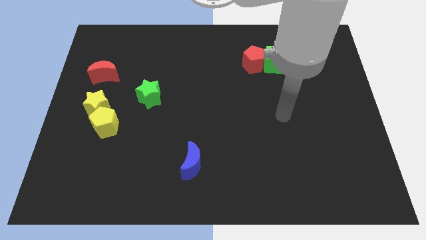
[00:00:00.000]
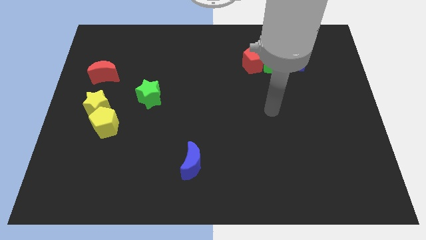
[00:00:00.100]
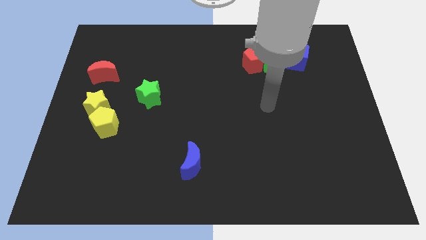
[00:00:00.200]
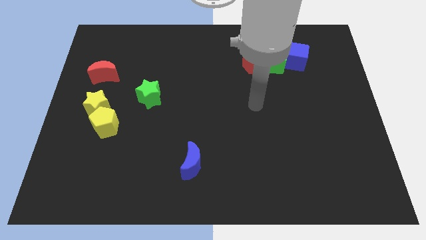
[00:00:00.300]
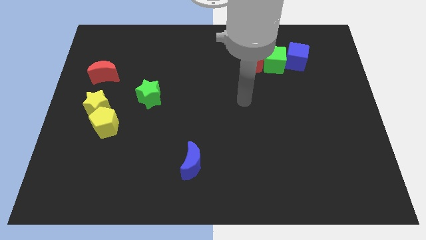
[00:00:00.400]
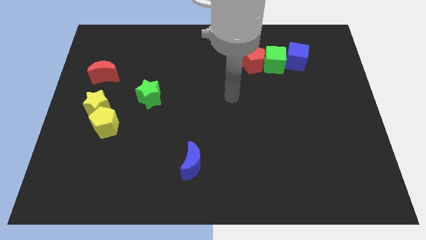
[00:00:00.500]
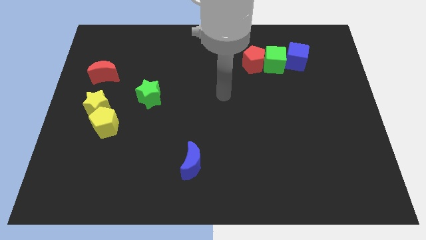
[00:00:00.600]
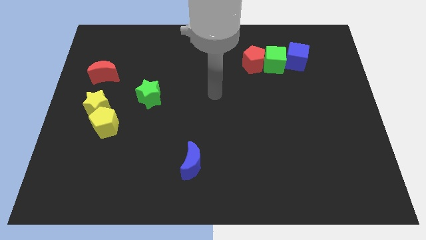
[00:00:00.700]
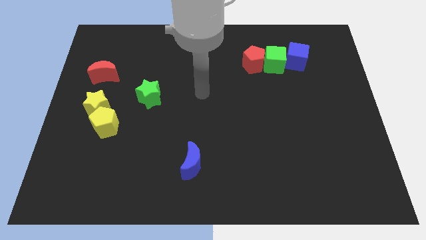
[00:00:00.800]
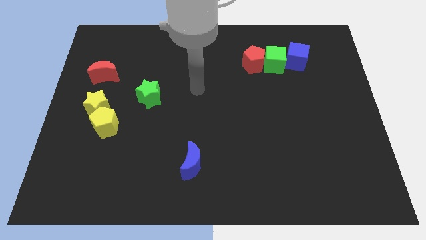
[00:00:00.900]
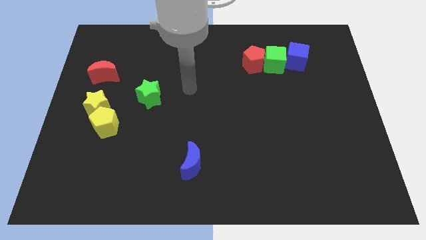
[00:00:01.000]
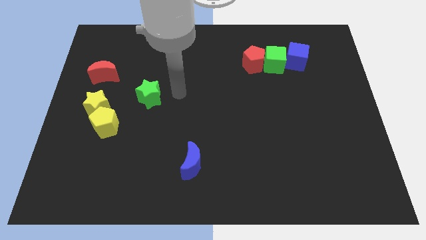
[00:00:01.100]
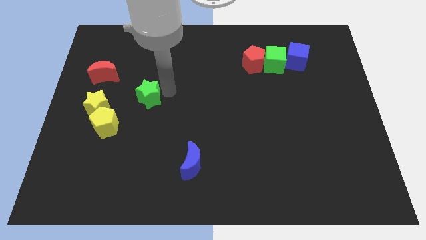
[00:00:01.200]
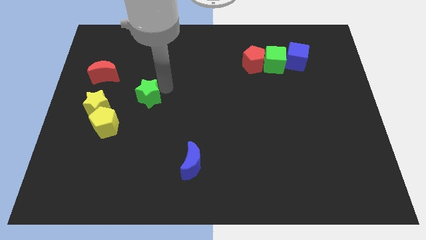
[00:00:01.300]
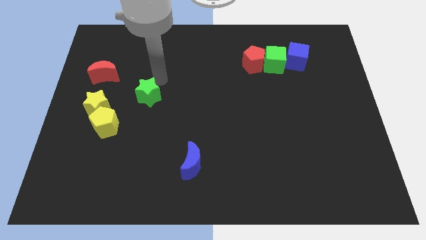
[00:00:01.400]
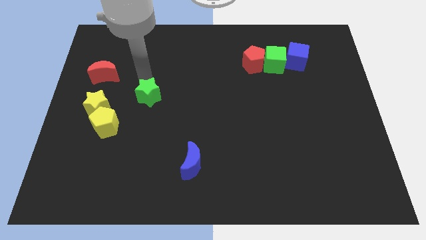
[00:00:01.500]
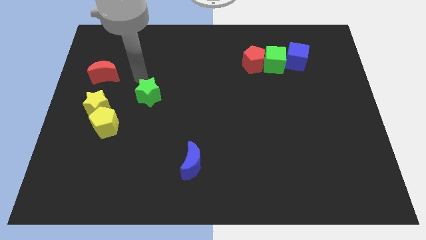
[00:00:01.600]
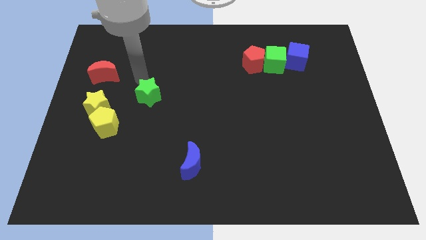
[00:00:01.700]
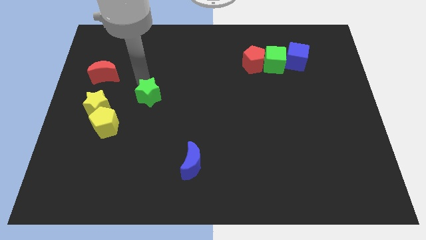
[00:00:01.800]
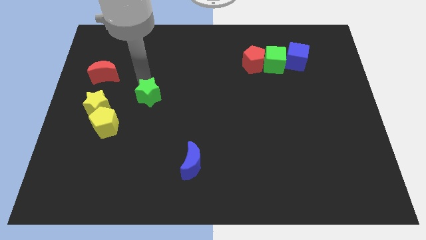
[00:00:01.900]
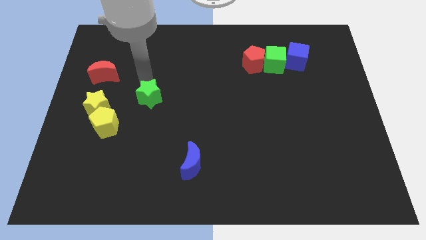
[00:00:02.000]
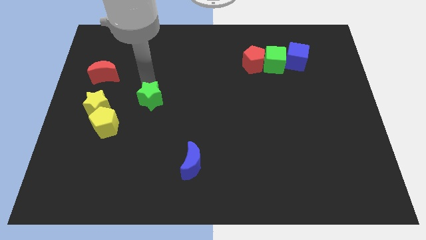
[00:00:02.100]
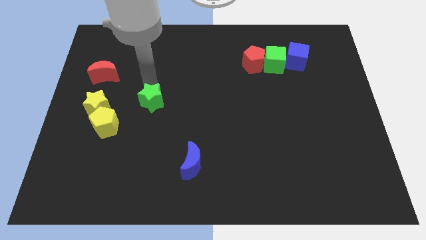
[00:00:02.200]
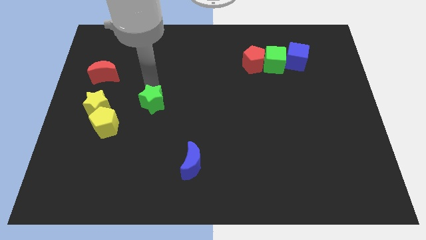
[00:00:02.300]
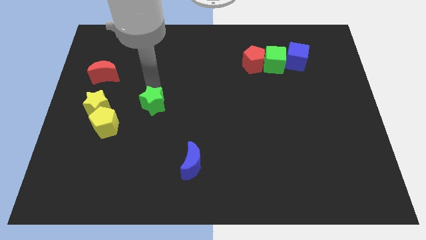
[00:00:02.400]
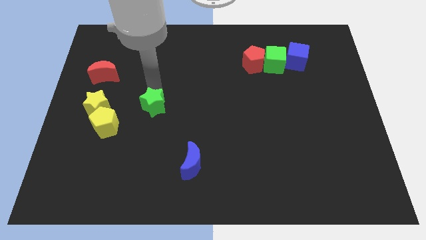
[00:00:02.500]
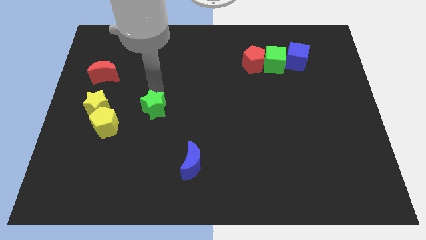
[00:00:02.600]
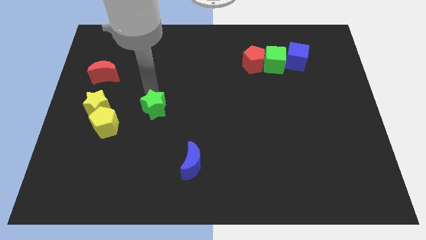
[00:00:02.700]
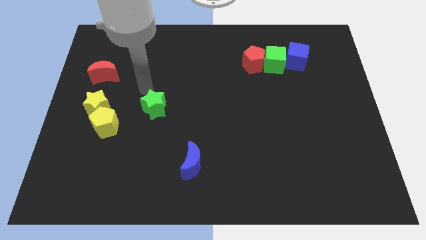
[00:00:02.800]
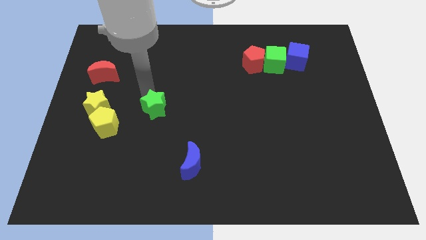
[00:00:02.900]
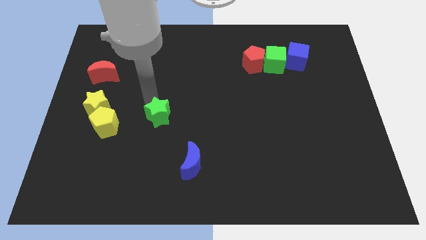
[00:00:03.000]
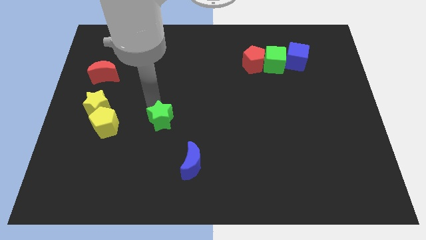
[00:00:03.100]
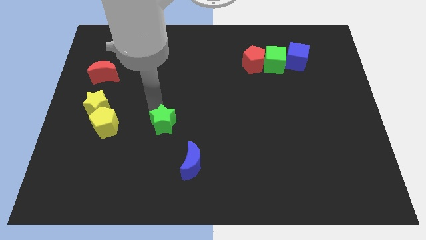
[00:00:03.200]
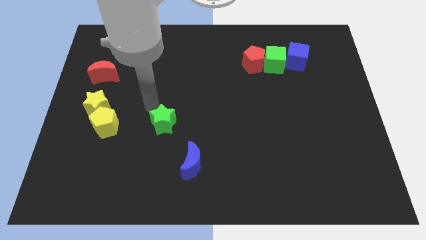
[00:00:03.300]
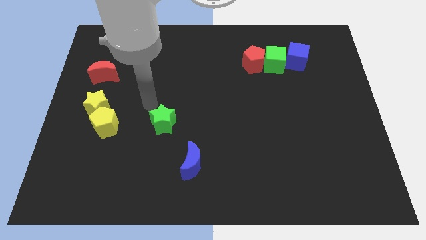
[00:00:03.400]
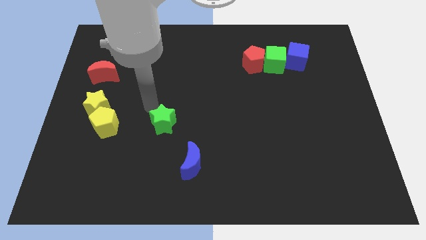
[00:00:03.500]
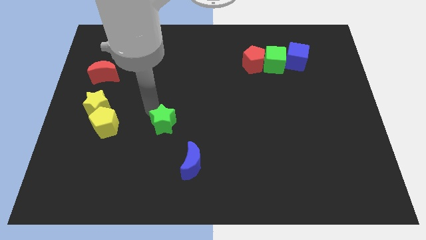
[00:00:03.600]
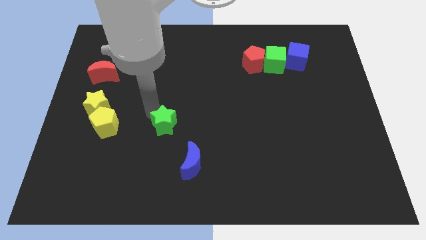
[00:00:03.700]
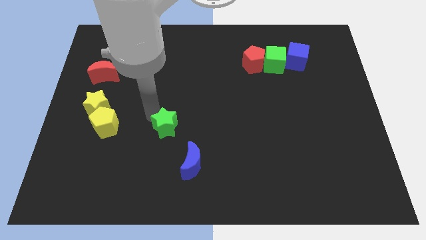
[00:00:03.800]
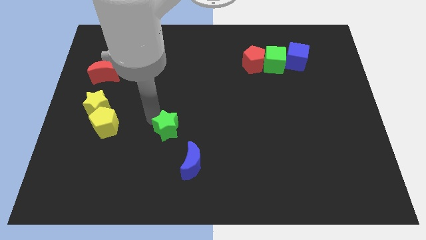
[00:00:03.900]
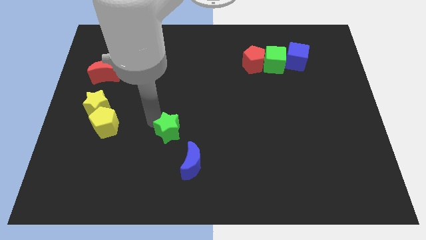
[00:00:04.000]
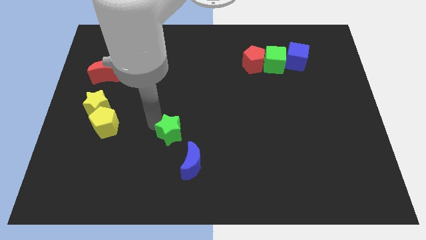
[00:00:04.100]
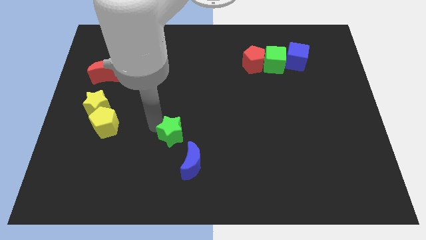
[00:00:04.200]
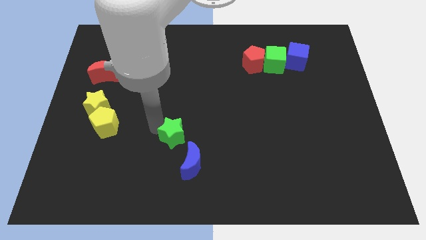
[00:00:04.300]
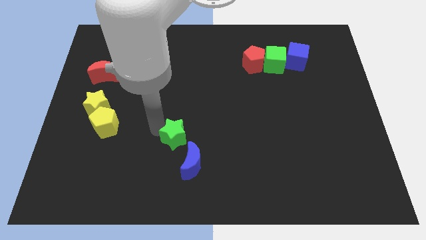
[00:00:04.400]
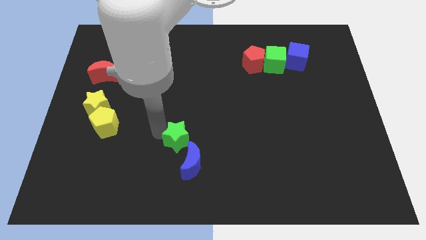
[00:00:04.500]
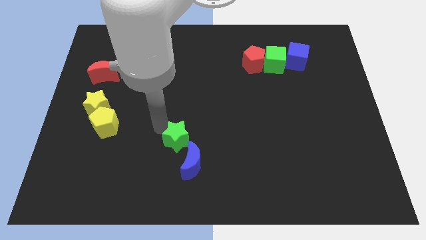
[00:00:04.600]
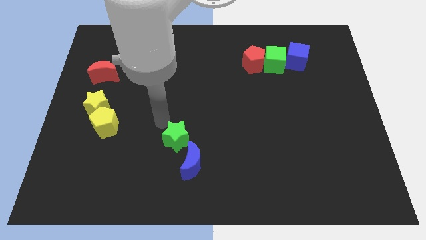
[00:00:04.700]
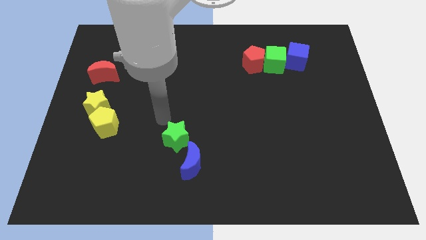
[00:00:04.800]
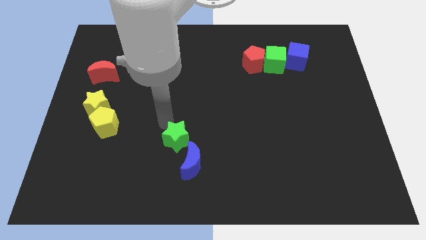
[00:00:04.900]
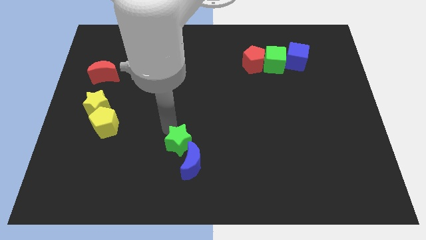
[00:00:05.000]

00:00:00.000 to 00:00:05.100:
put the green star towards the blue moon

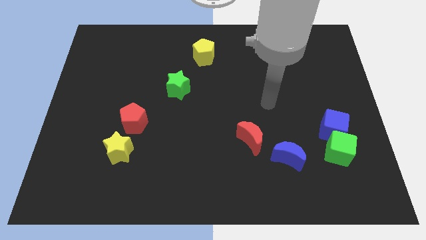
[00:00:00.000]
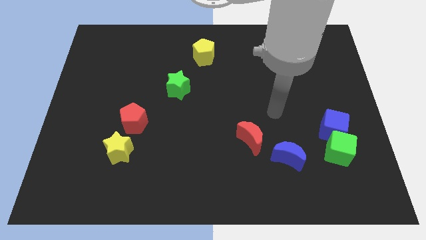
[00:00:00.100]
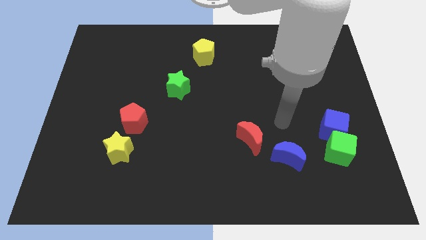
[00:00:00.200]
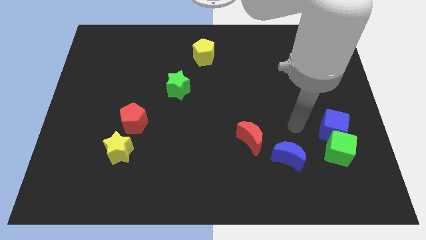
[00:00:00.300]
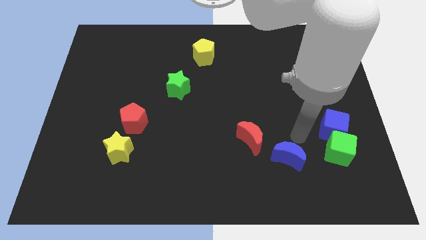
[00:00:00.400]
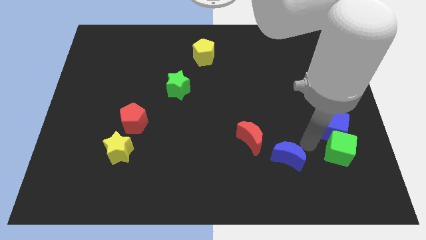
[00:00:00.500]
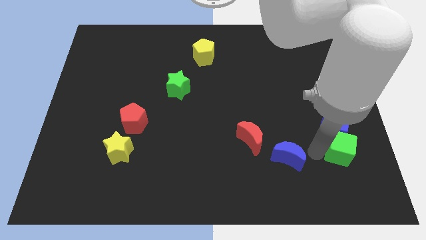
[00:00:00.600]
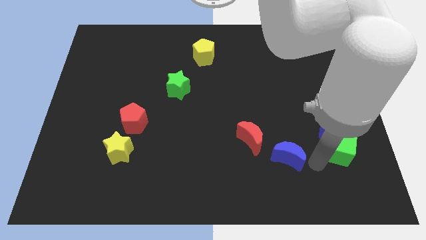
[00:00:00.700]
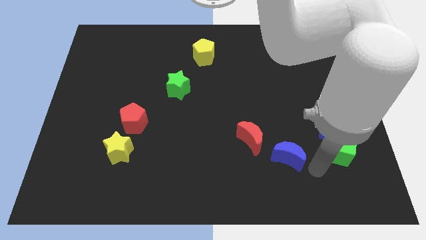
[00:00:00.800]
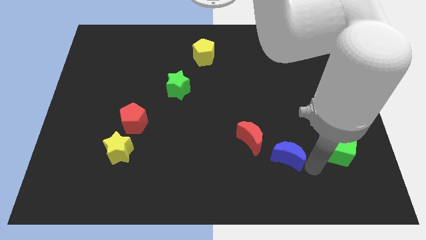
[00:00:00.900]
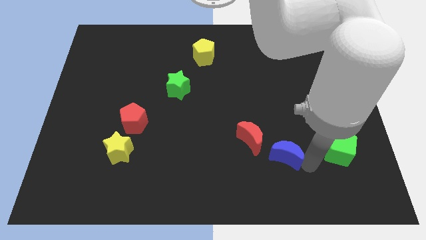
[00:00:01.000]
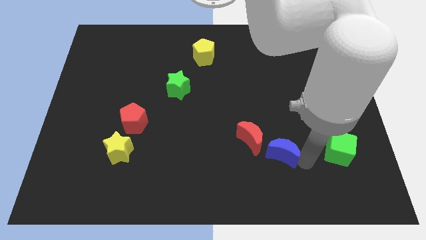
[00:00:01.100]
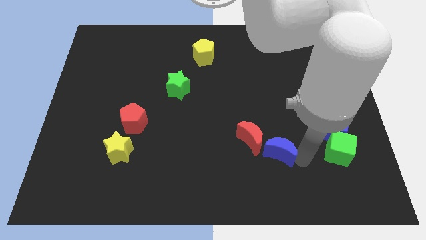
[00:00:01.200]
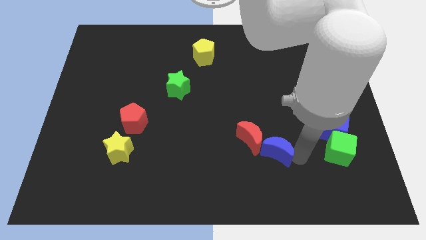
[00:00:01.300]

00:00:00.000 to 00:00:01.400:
put the blue moon close to the red moon

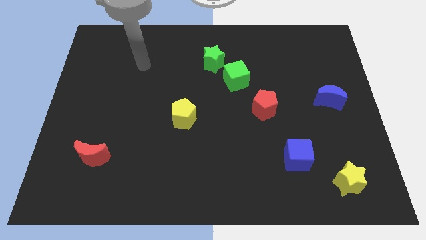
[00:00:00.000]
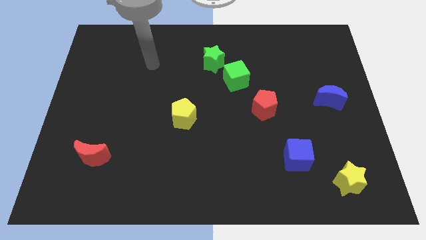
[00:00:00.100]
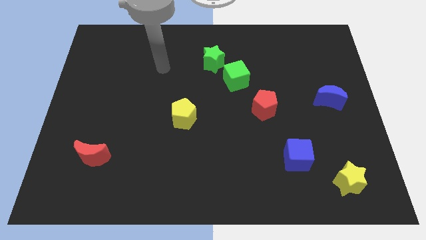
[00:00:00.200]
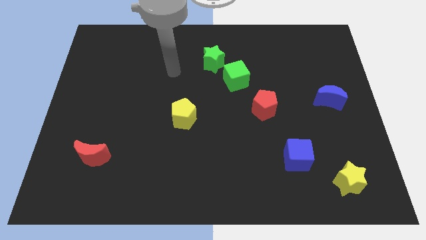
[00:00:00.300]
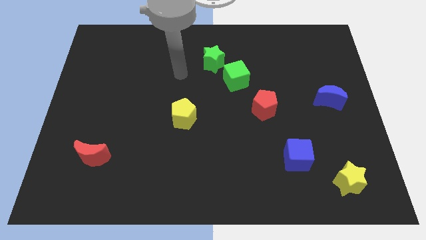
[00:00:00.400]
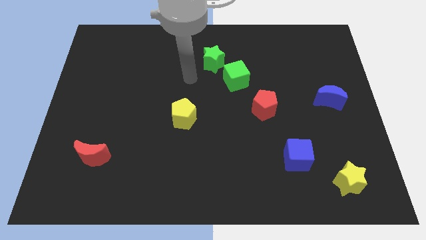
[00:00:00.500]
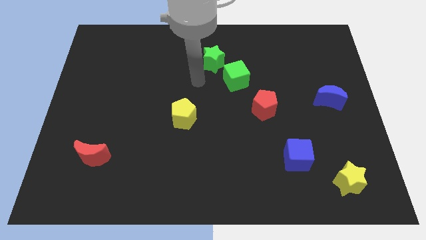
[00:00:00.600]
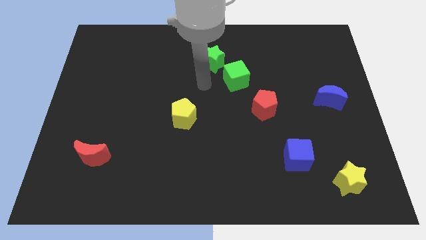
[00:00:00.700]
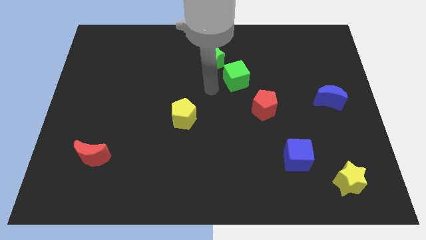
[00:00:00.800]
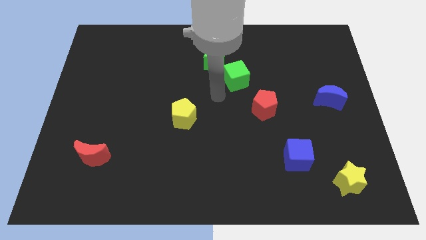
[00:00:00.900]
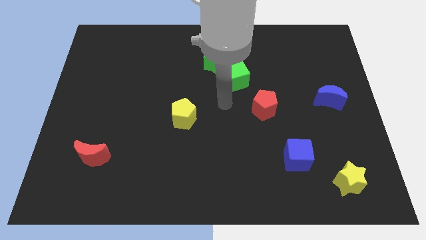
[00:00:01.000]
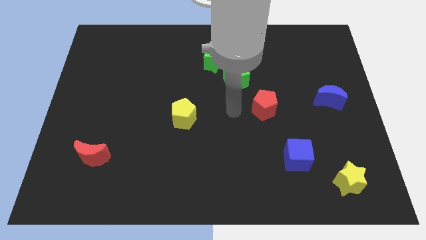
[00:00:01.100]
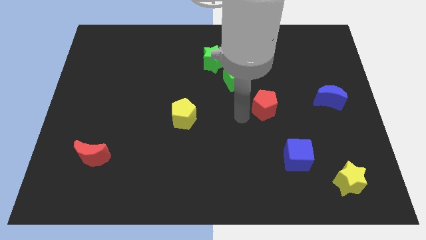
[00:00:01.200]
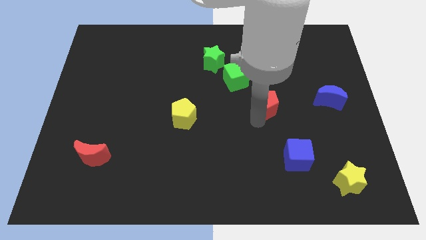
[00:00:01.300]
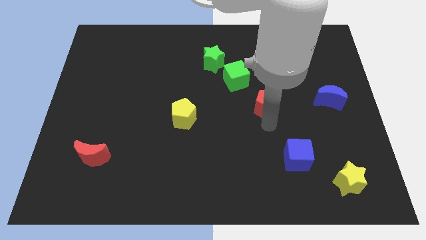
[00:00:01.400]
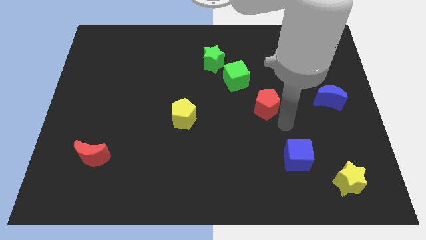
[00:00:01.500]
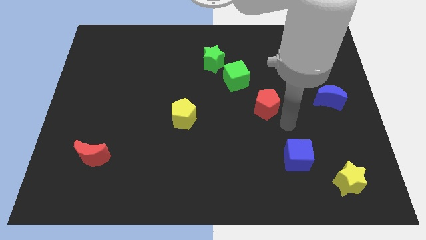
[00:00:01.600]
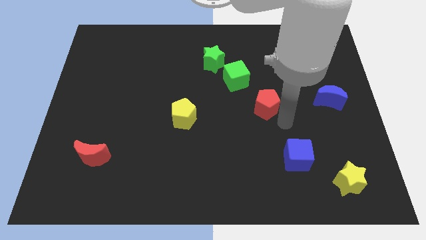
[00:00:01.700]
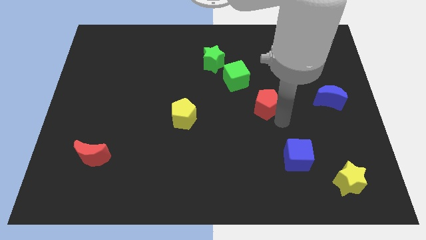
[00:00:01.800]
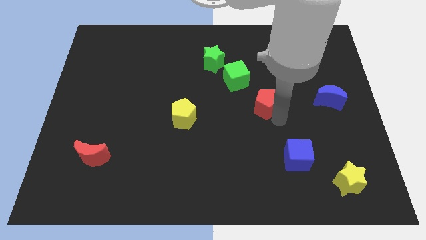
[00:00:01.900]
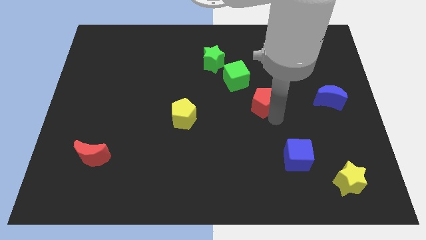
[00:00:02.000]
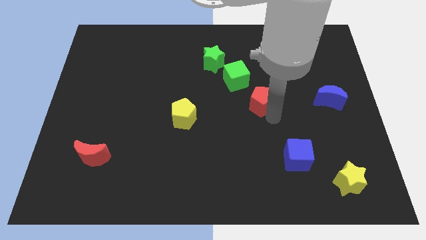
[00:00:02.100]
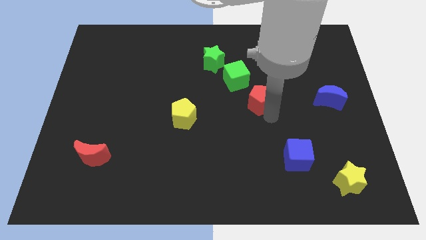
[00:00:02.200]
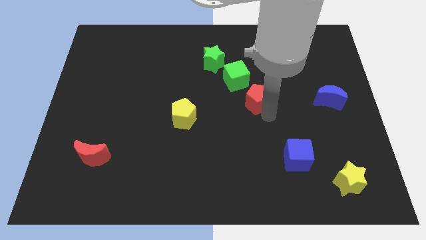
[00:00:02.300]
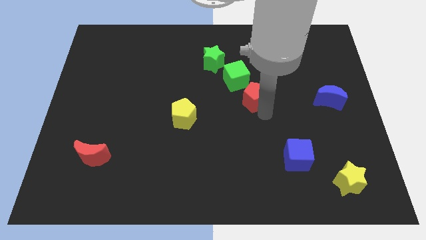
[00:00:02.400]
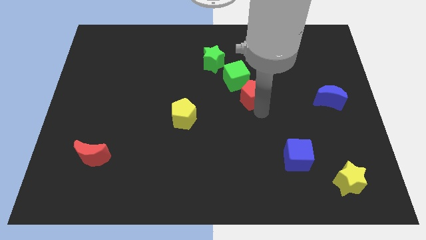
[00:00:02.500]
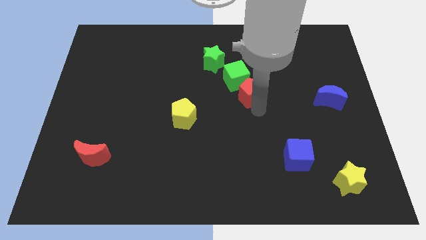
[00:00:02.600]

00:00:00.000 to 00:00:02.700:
slide the red pentagon to the green cube
